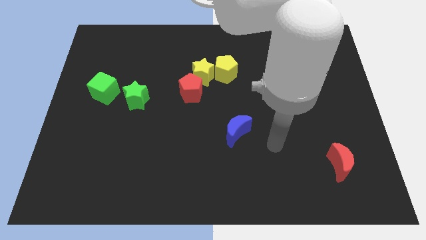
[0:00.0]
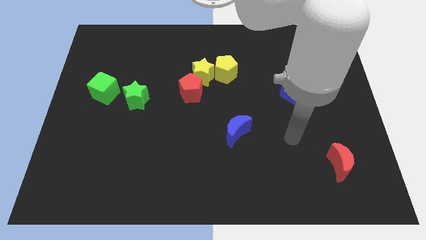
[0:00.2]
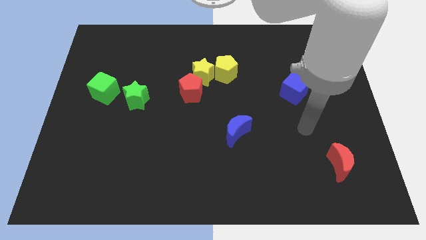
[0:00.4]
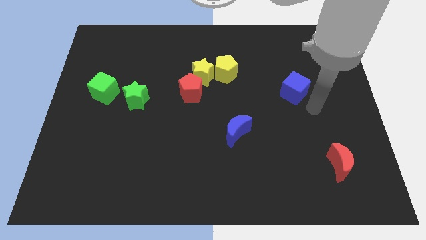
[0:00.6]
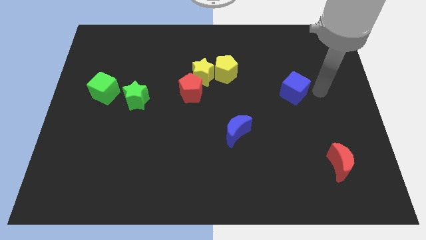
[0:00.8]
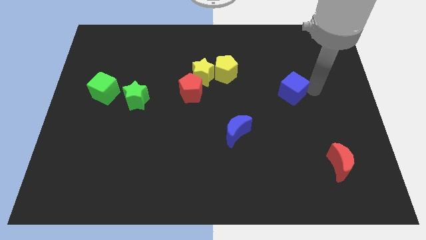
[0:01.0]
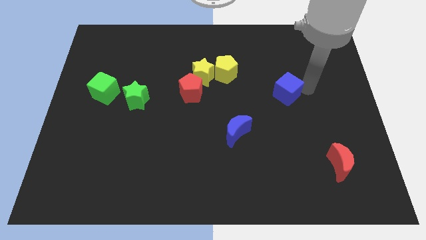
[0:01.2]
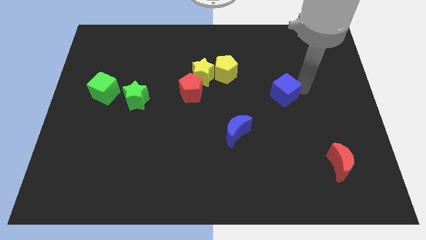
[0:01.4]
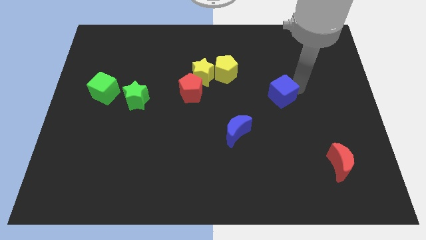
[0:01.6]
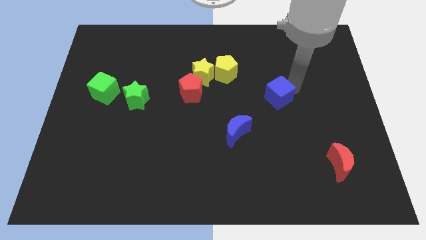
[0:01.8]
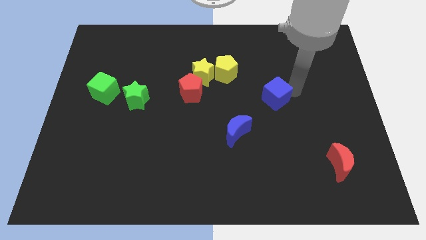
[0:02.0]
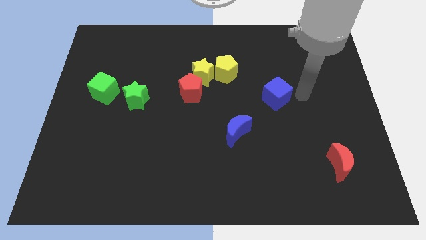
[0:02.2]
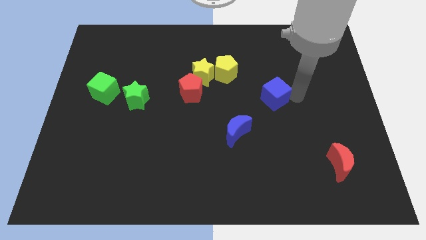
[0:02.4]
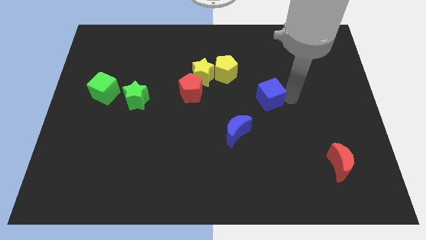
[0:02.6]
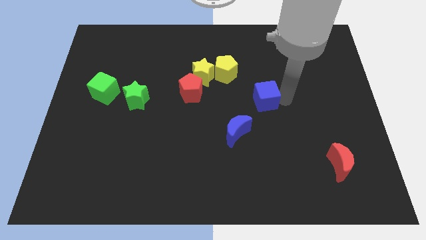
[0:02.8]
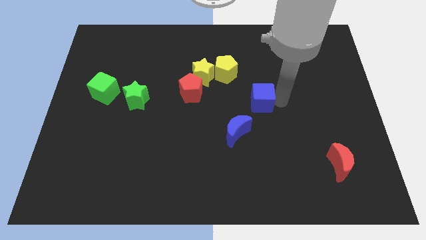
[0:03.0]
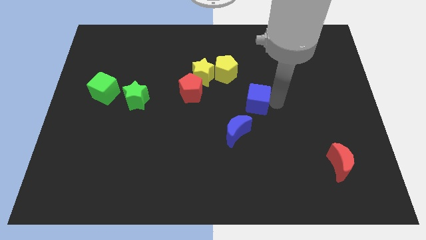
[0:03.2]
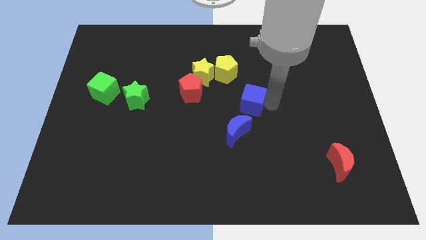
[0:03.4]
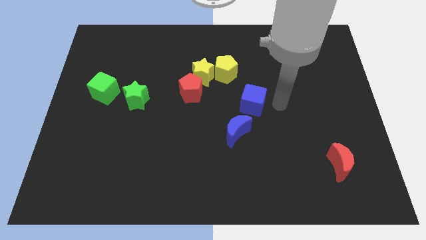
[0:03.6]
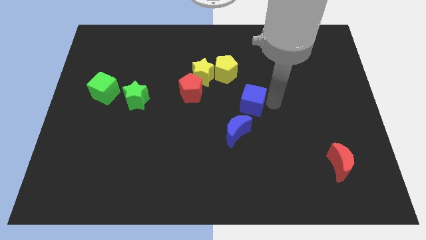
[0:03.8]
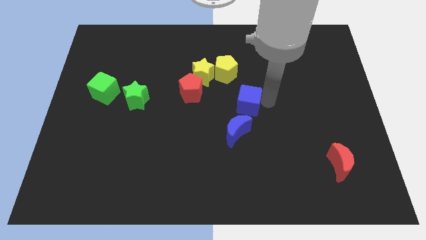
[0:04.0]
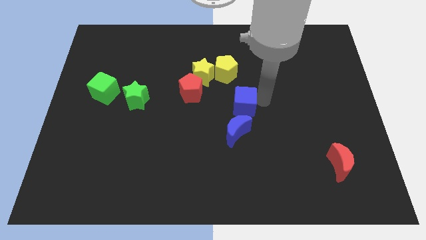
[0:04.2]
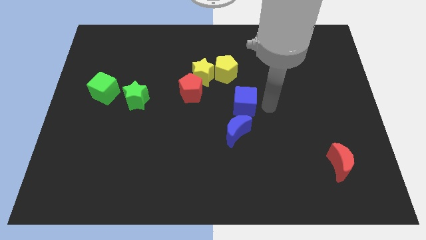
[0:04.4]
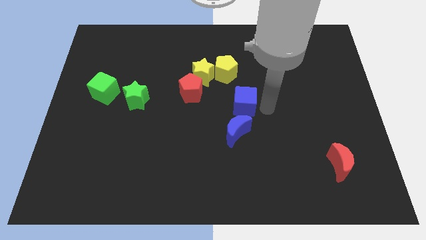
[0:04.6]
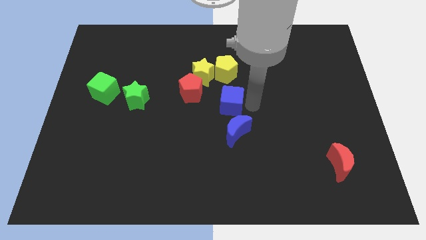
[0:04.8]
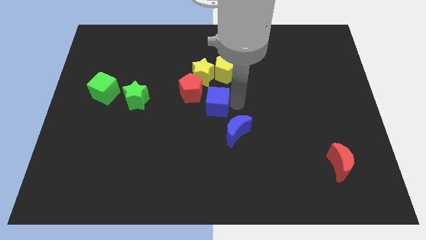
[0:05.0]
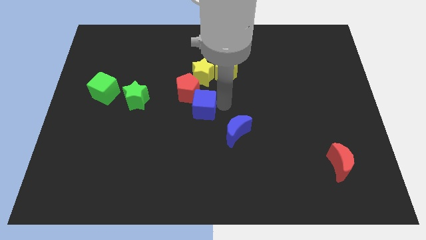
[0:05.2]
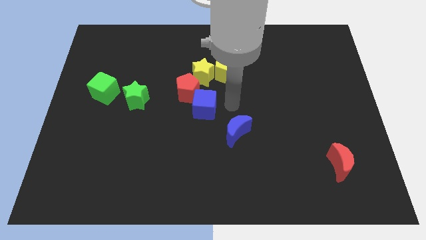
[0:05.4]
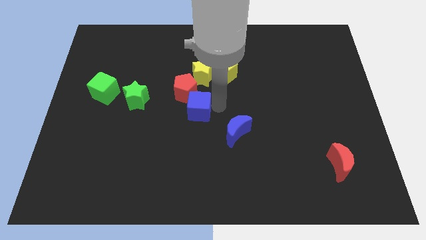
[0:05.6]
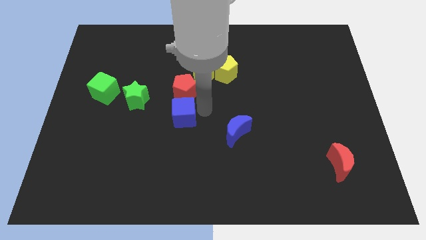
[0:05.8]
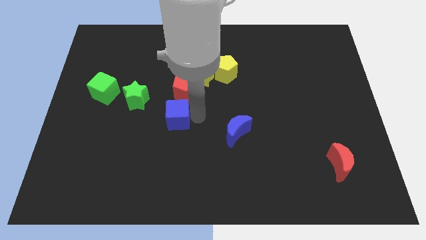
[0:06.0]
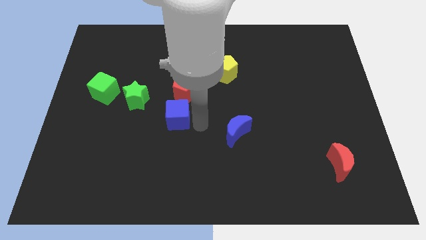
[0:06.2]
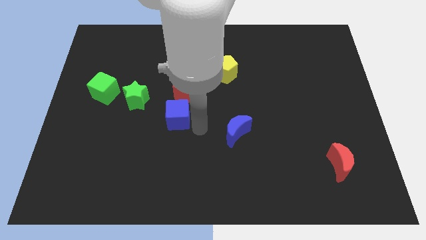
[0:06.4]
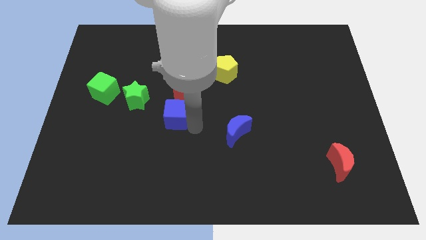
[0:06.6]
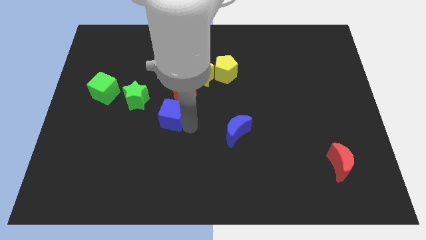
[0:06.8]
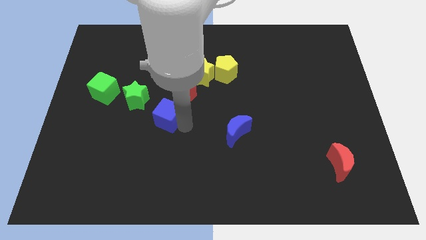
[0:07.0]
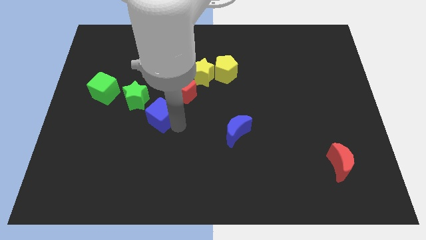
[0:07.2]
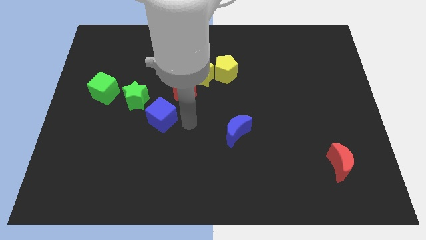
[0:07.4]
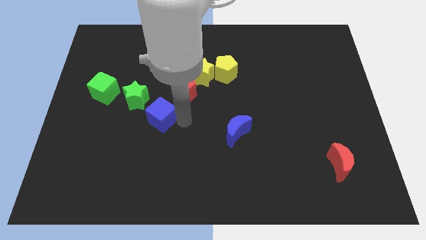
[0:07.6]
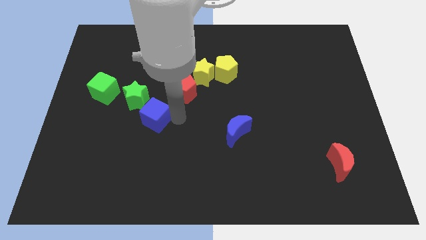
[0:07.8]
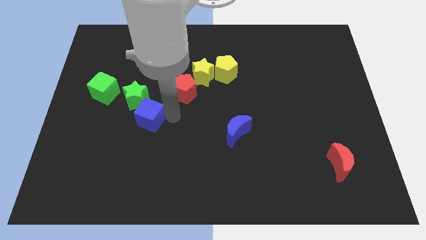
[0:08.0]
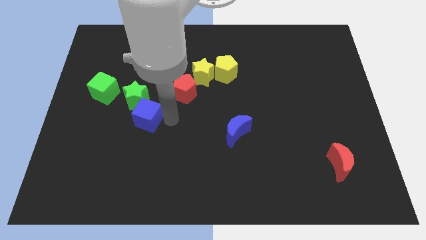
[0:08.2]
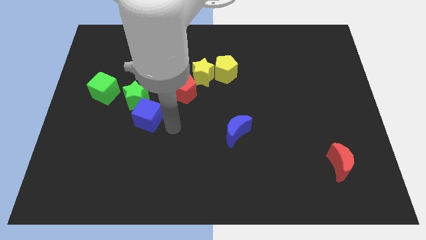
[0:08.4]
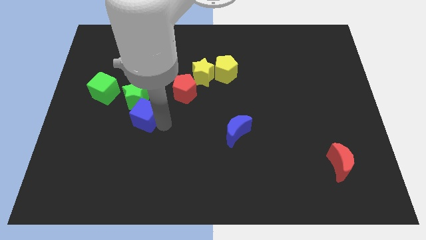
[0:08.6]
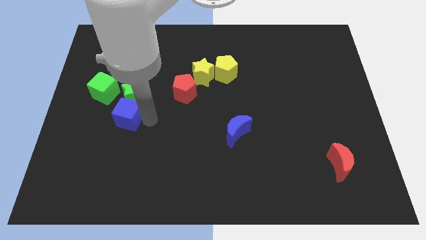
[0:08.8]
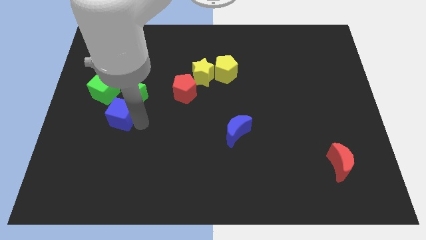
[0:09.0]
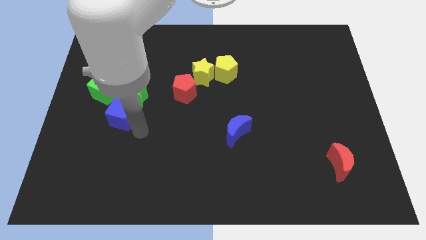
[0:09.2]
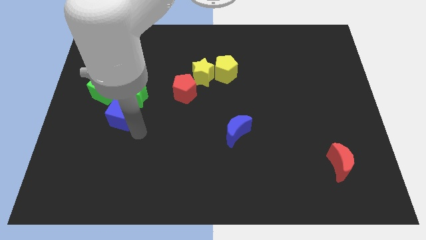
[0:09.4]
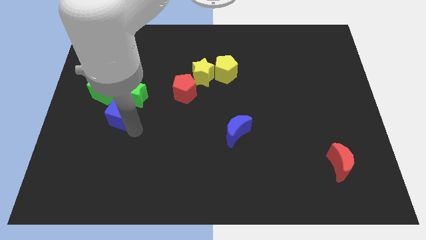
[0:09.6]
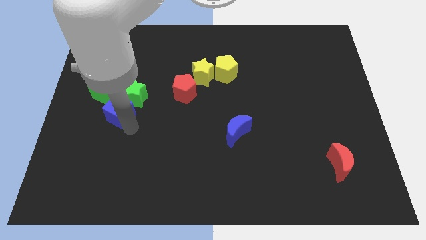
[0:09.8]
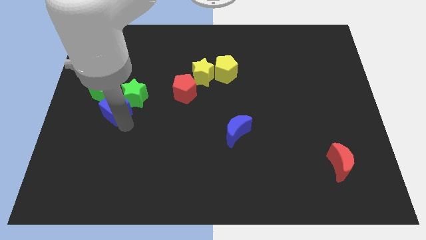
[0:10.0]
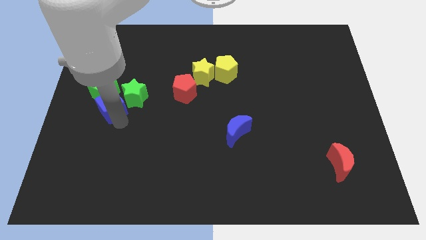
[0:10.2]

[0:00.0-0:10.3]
move the blue cube close to the green cube

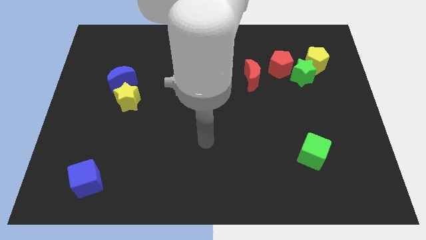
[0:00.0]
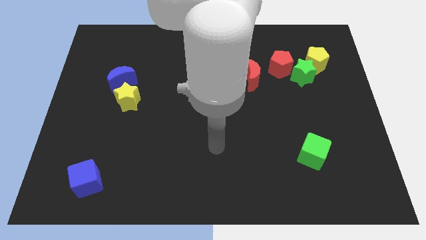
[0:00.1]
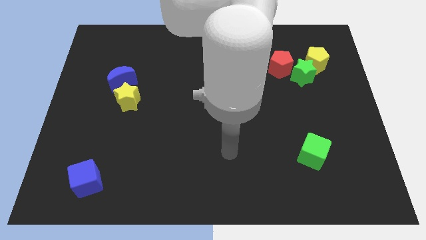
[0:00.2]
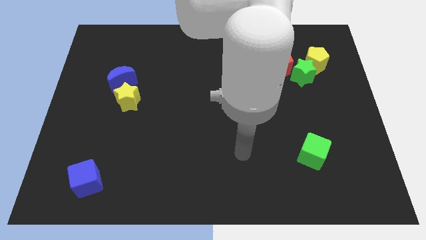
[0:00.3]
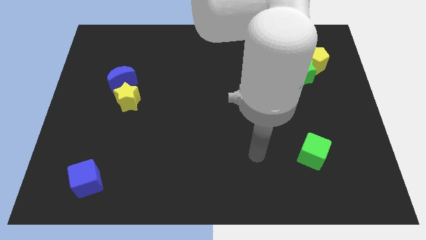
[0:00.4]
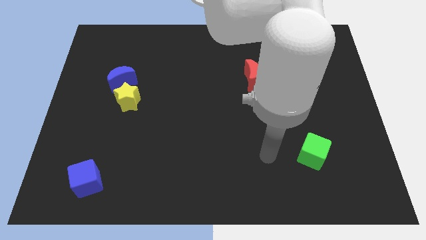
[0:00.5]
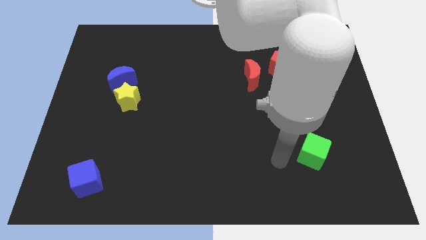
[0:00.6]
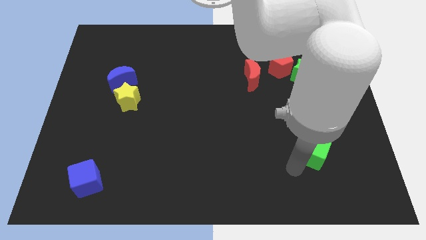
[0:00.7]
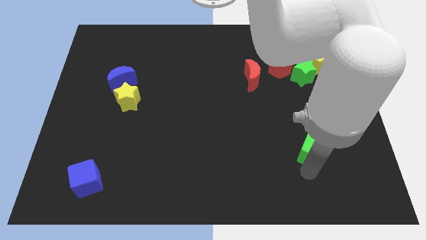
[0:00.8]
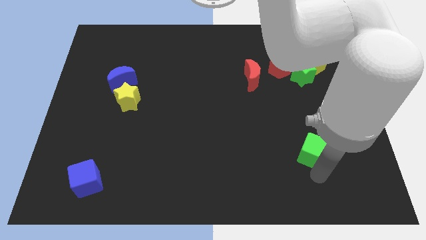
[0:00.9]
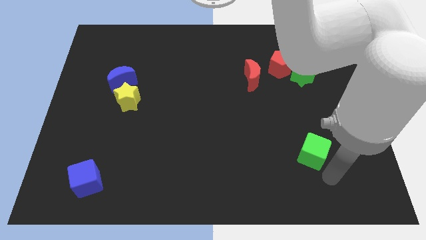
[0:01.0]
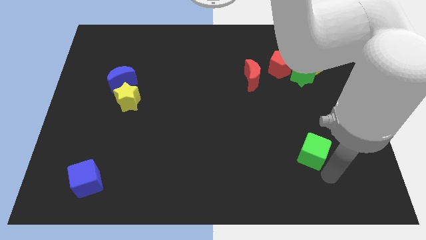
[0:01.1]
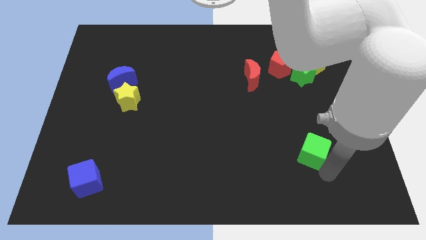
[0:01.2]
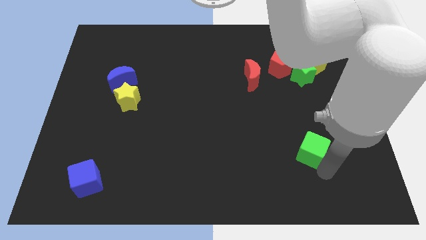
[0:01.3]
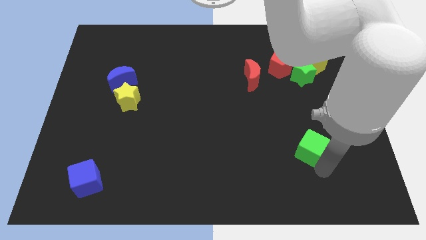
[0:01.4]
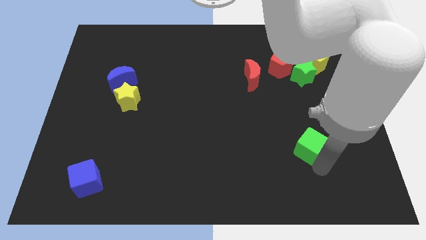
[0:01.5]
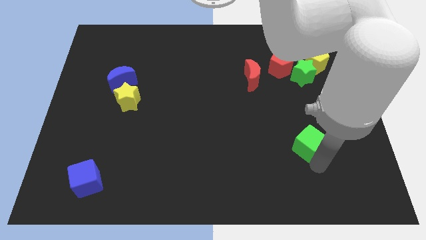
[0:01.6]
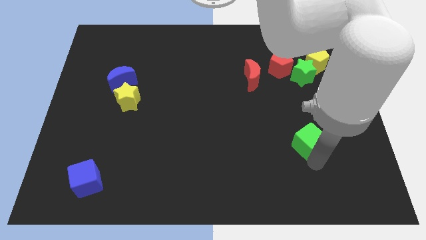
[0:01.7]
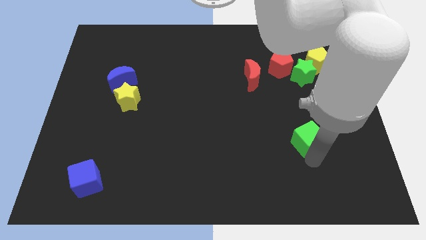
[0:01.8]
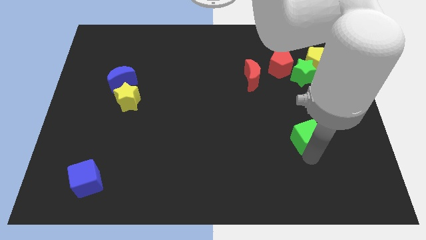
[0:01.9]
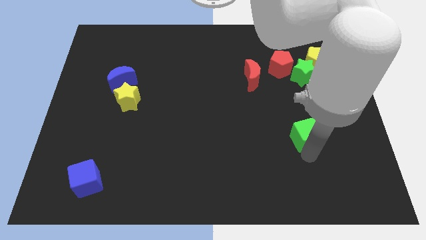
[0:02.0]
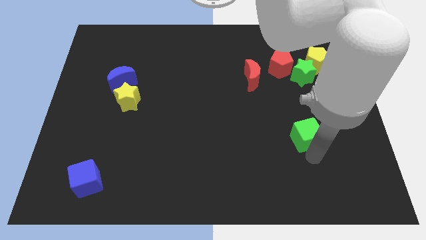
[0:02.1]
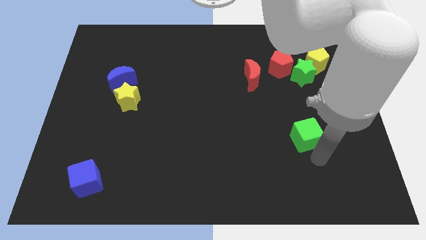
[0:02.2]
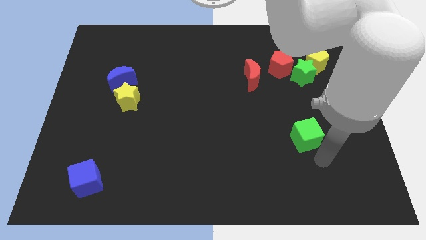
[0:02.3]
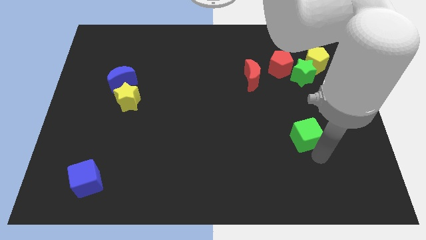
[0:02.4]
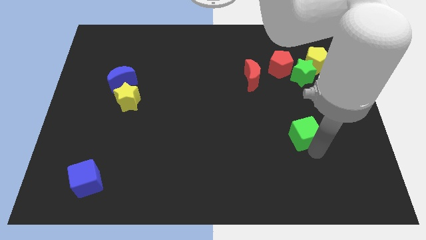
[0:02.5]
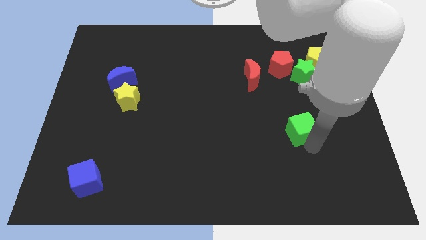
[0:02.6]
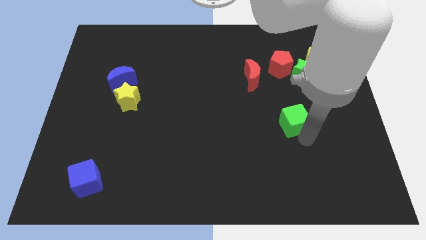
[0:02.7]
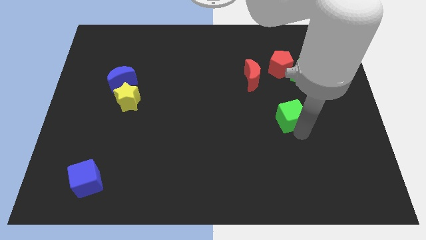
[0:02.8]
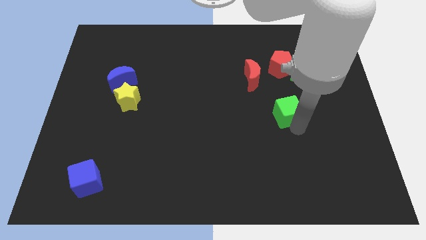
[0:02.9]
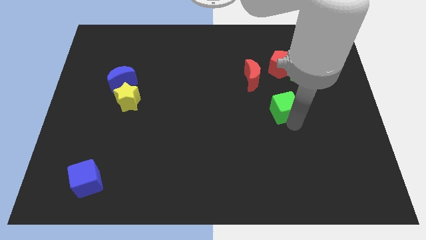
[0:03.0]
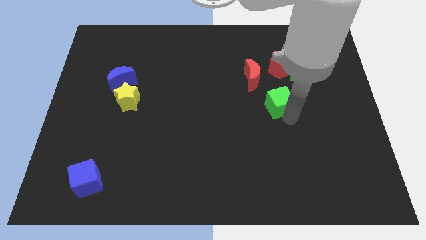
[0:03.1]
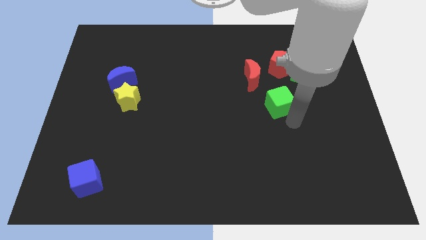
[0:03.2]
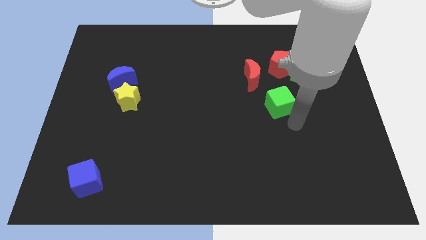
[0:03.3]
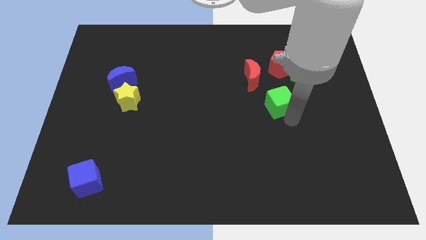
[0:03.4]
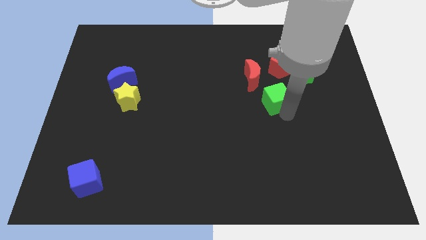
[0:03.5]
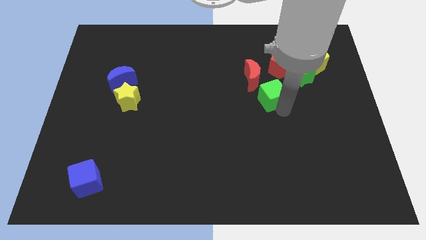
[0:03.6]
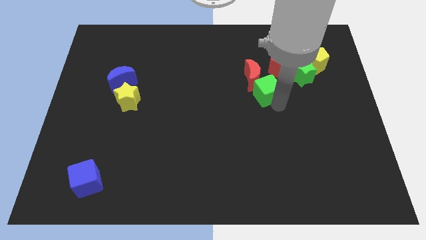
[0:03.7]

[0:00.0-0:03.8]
put the green cube next to the red moon
